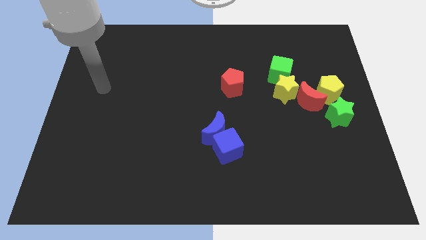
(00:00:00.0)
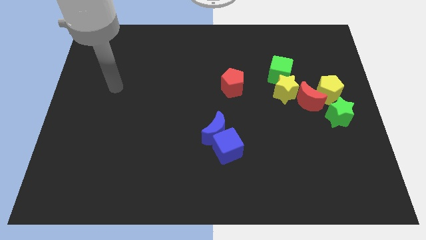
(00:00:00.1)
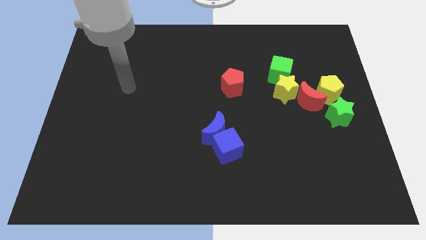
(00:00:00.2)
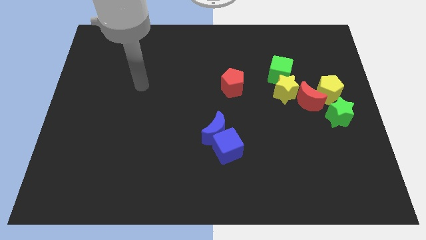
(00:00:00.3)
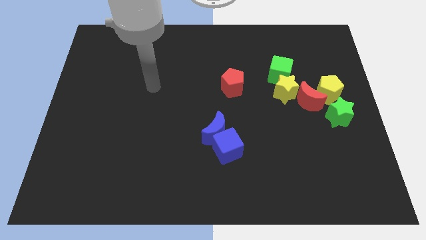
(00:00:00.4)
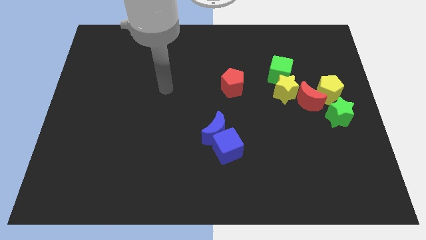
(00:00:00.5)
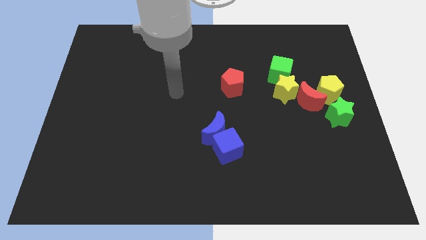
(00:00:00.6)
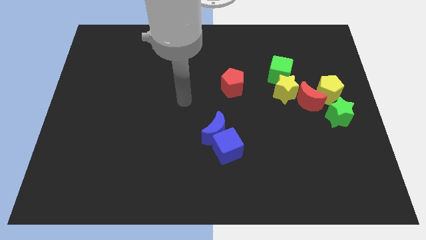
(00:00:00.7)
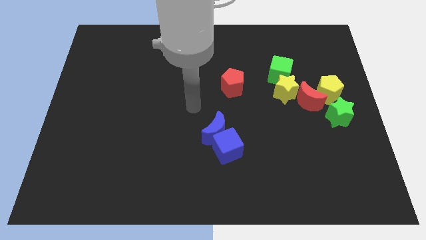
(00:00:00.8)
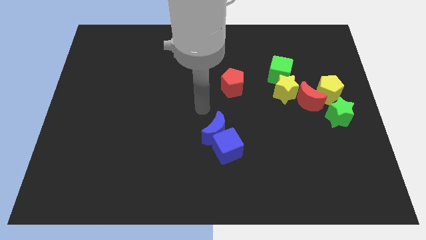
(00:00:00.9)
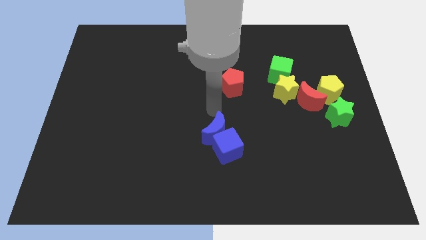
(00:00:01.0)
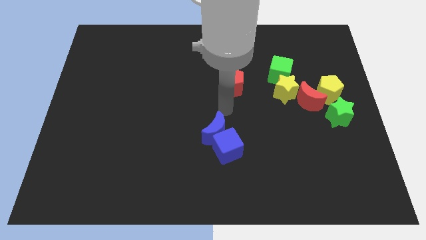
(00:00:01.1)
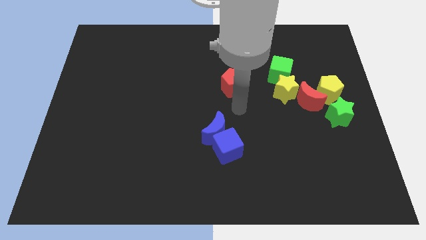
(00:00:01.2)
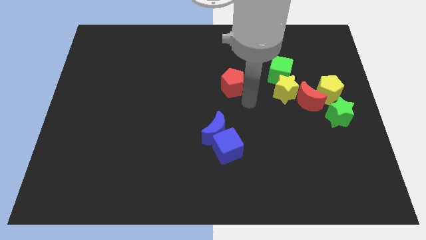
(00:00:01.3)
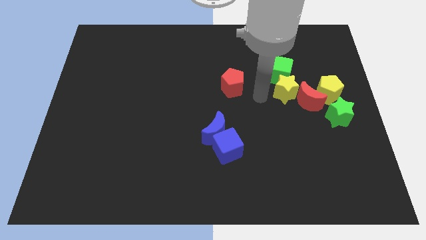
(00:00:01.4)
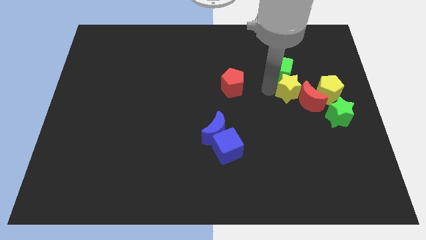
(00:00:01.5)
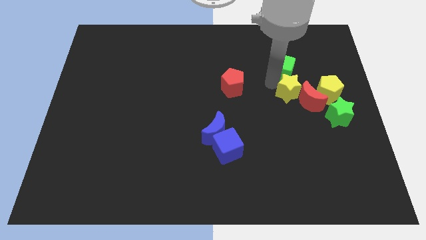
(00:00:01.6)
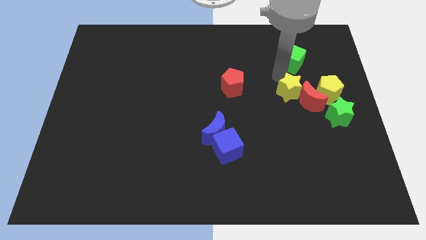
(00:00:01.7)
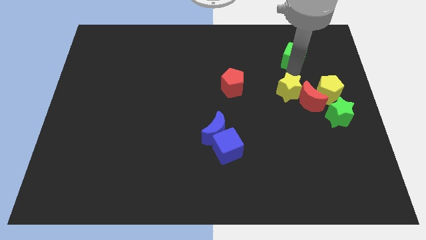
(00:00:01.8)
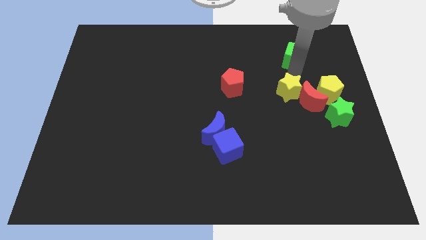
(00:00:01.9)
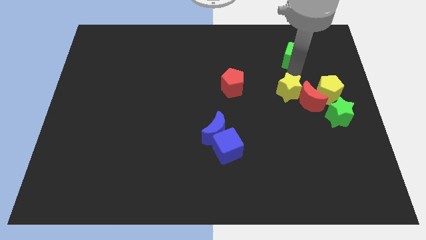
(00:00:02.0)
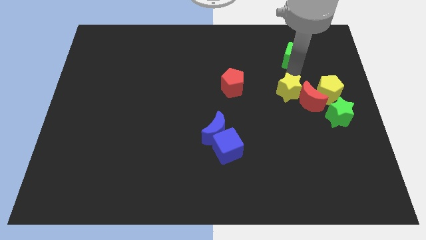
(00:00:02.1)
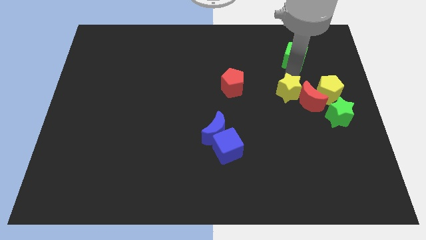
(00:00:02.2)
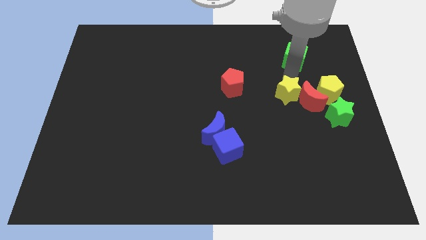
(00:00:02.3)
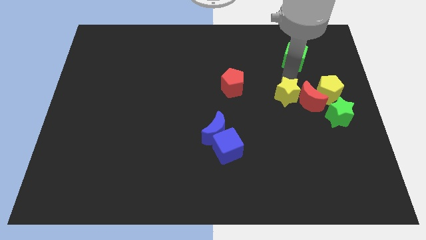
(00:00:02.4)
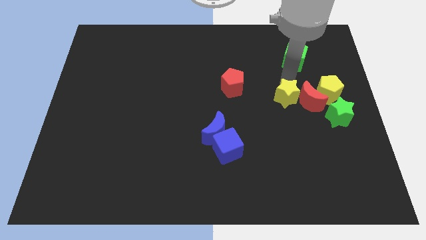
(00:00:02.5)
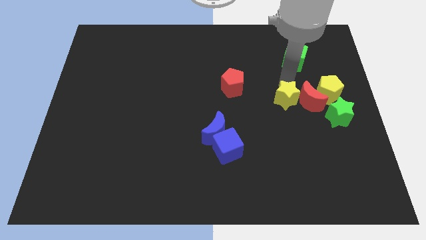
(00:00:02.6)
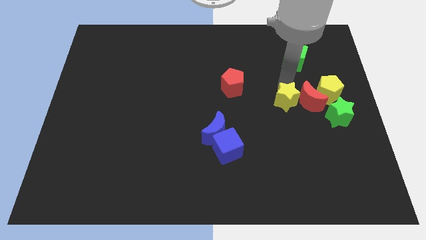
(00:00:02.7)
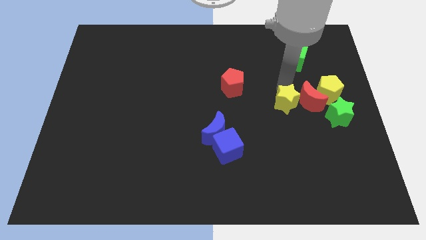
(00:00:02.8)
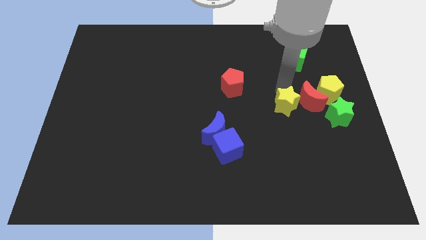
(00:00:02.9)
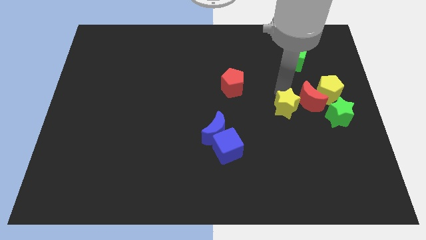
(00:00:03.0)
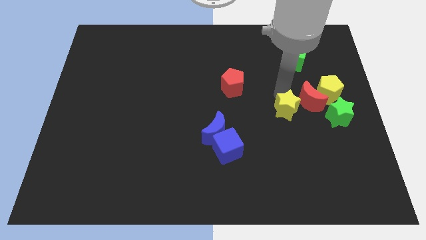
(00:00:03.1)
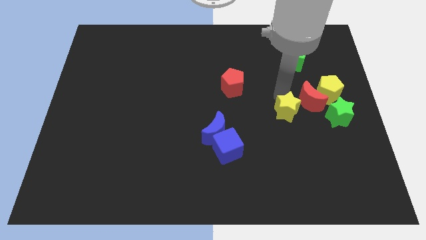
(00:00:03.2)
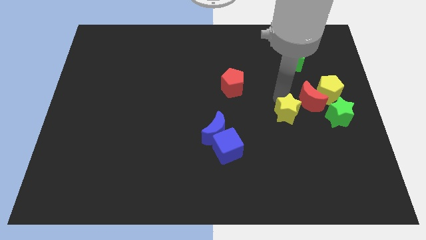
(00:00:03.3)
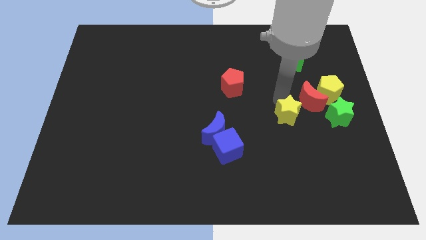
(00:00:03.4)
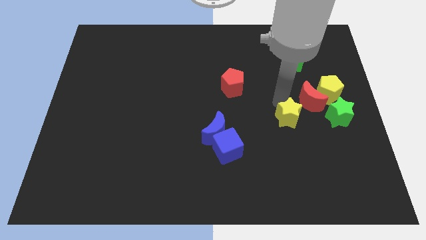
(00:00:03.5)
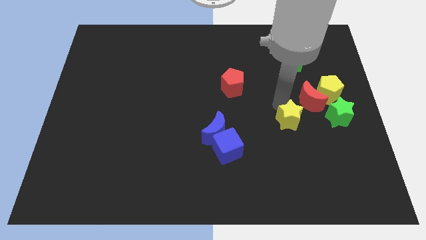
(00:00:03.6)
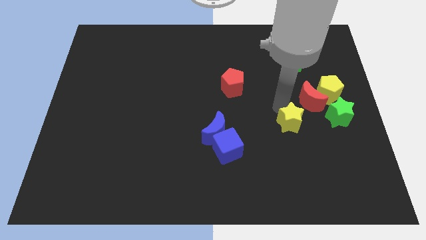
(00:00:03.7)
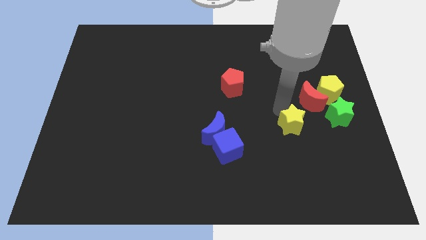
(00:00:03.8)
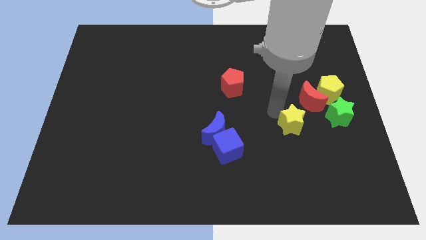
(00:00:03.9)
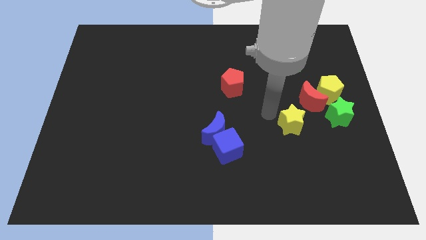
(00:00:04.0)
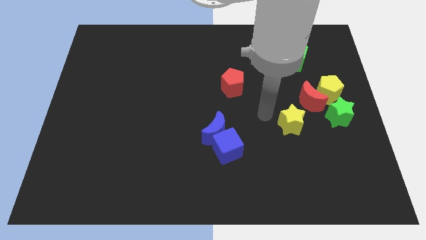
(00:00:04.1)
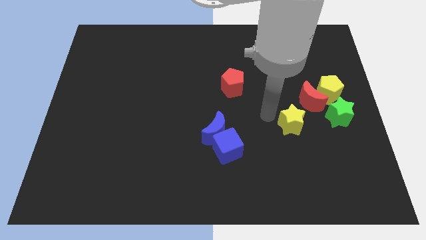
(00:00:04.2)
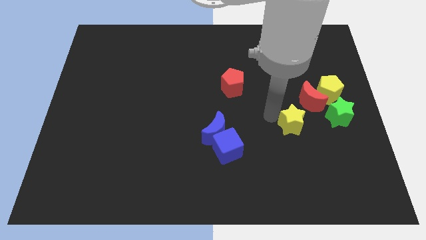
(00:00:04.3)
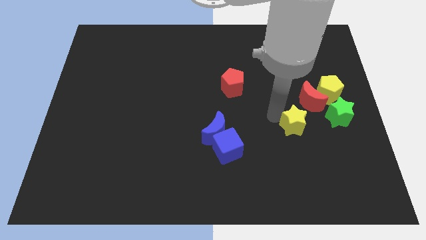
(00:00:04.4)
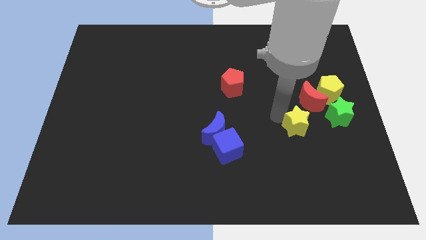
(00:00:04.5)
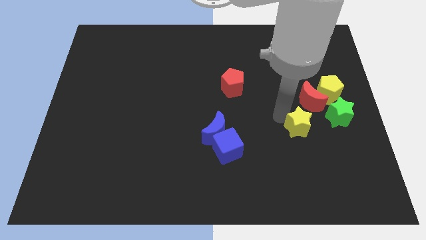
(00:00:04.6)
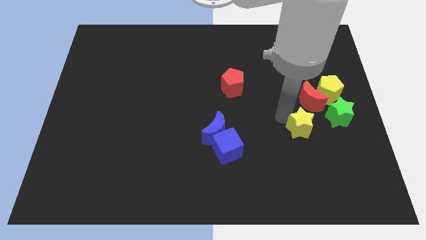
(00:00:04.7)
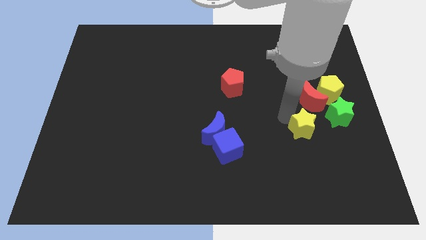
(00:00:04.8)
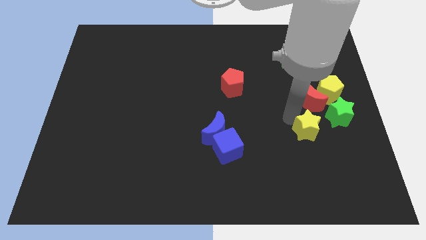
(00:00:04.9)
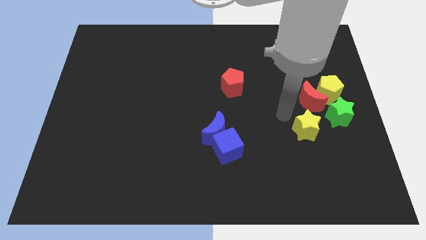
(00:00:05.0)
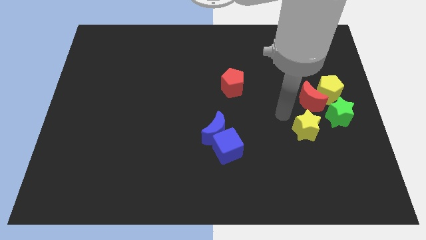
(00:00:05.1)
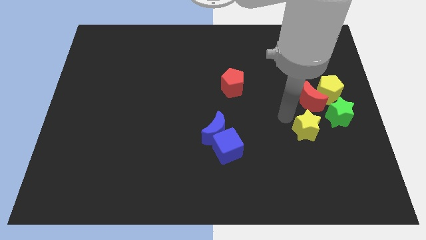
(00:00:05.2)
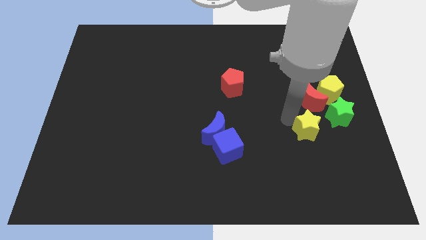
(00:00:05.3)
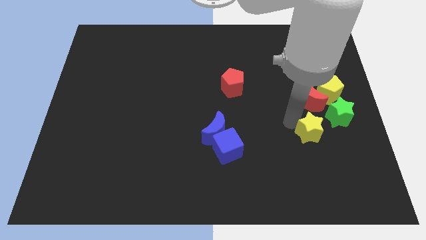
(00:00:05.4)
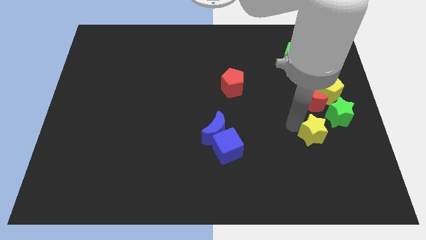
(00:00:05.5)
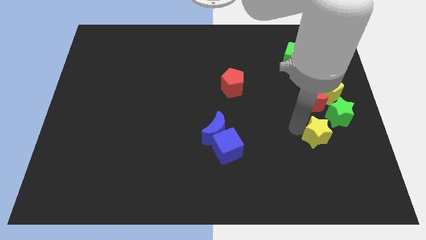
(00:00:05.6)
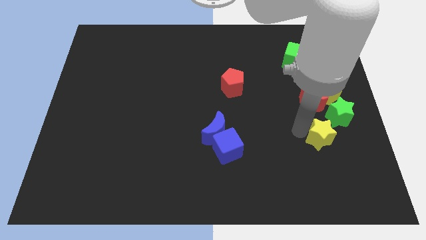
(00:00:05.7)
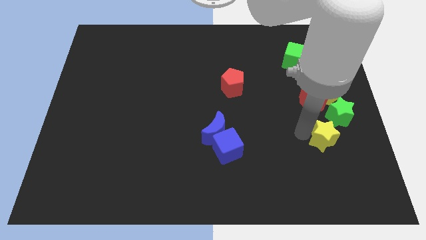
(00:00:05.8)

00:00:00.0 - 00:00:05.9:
push the yellow star below the green star

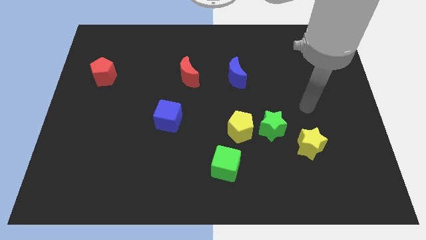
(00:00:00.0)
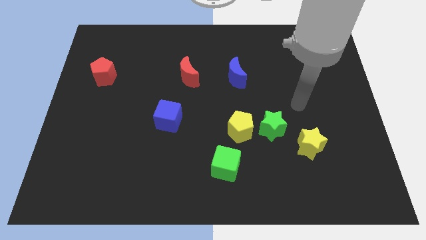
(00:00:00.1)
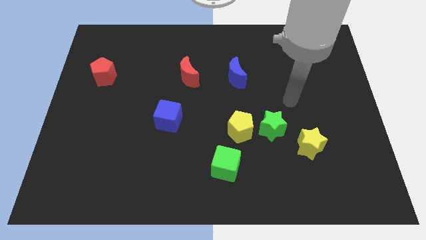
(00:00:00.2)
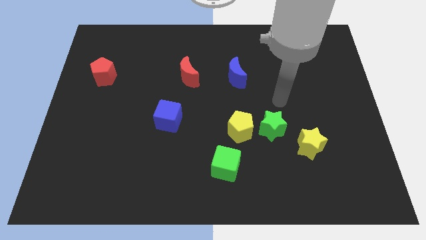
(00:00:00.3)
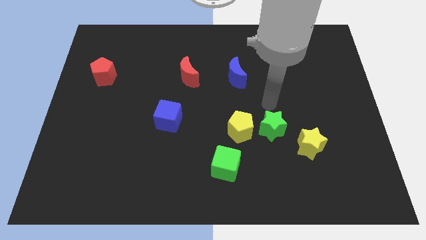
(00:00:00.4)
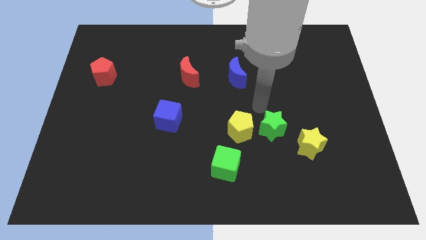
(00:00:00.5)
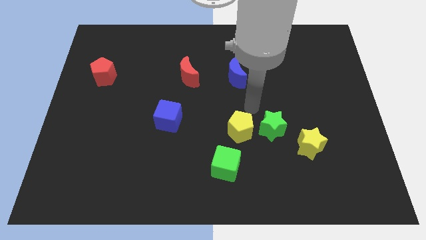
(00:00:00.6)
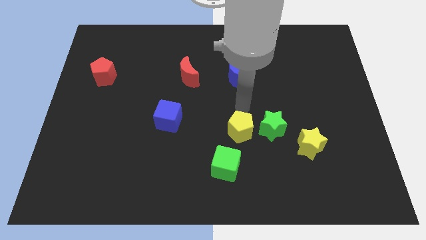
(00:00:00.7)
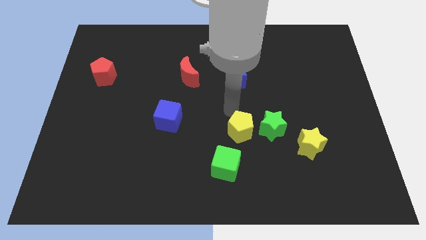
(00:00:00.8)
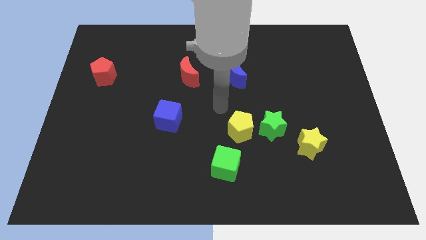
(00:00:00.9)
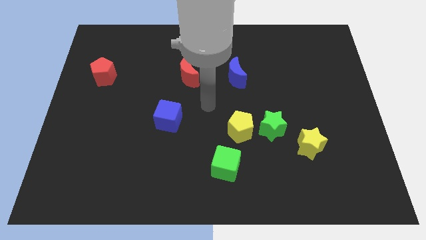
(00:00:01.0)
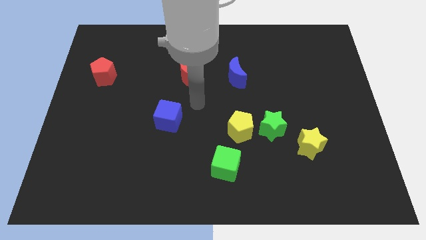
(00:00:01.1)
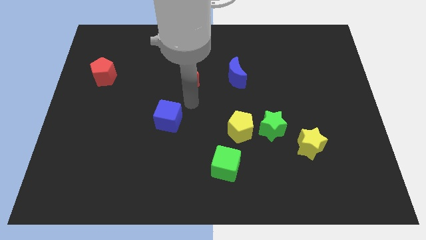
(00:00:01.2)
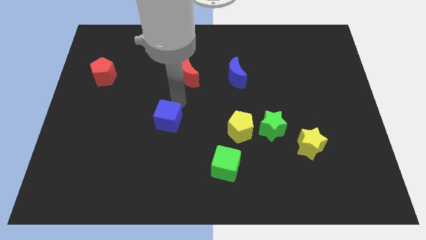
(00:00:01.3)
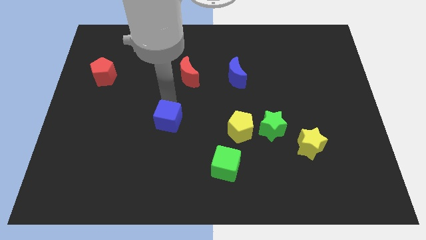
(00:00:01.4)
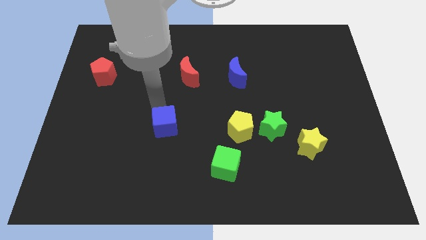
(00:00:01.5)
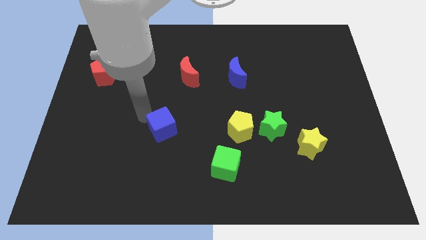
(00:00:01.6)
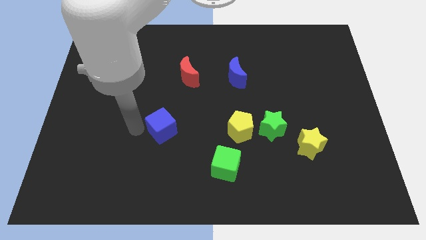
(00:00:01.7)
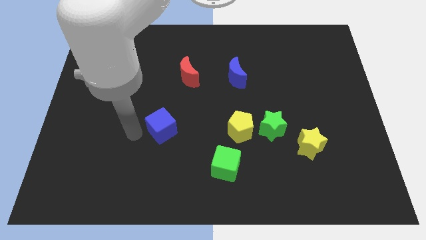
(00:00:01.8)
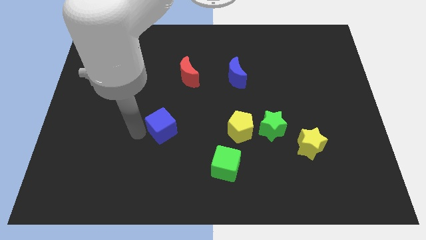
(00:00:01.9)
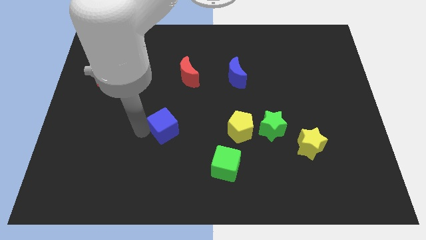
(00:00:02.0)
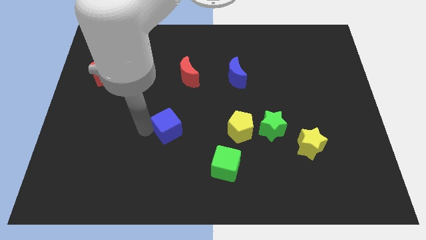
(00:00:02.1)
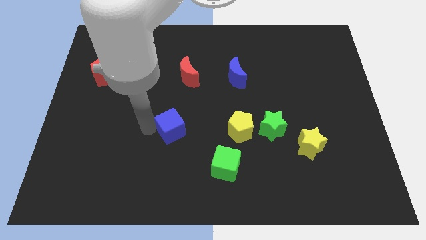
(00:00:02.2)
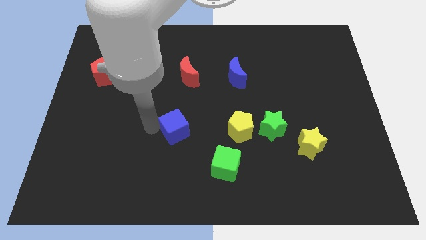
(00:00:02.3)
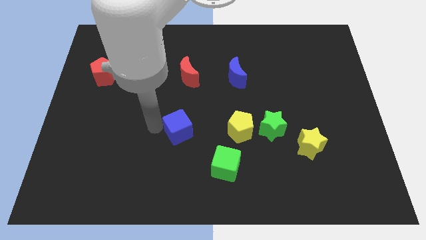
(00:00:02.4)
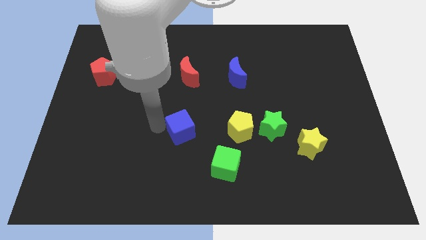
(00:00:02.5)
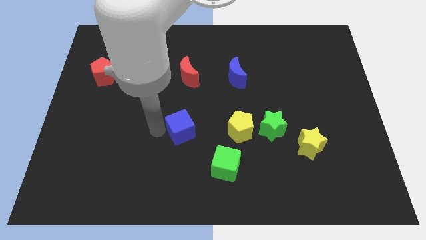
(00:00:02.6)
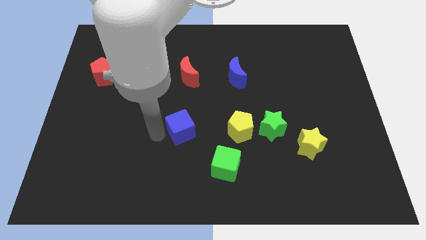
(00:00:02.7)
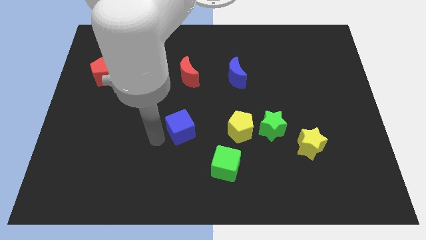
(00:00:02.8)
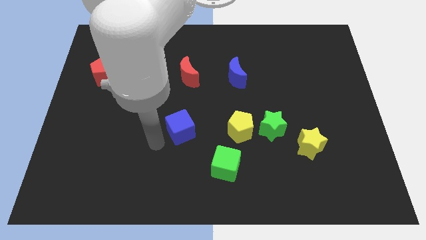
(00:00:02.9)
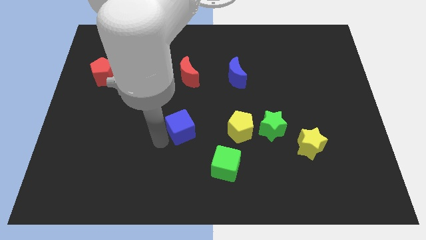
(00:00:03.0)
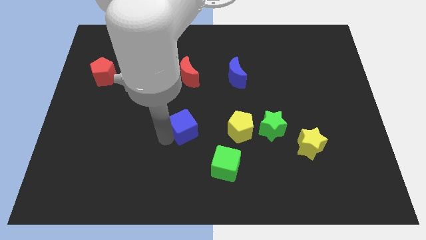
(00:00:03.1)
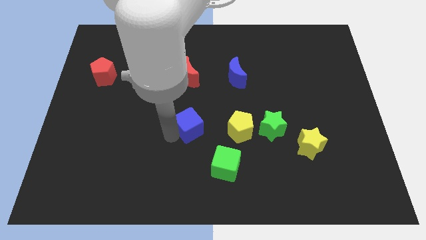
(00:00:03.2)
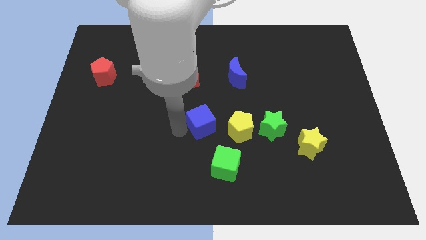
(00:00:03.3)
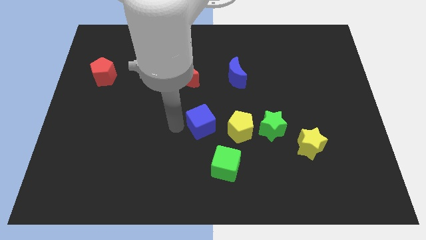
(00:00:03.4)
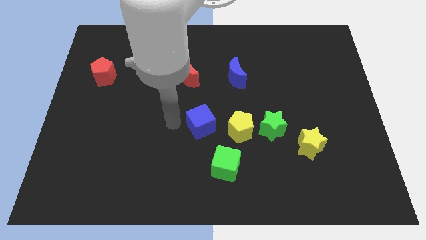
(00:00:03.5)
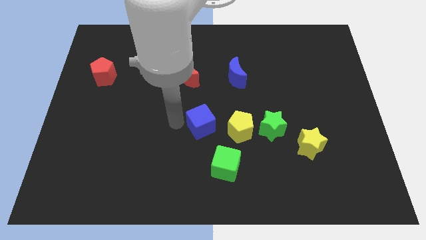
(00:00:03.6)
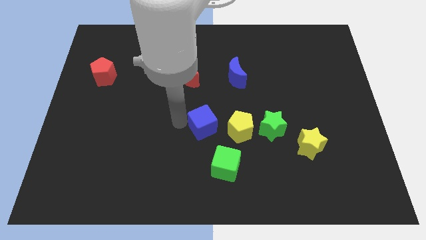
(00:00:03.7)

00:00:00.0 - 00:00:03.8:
push the blue cube to the top side of the green cube
